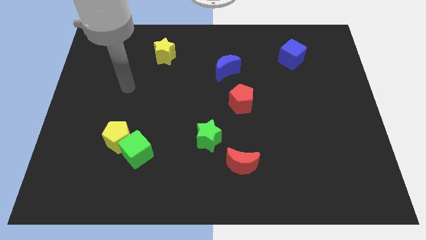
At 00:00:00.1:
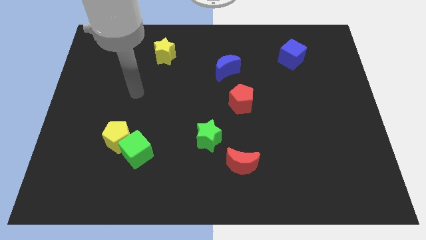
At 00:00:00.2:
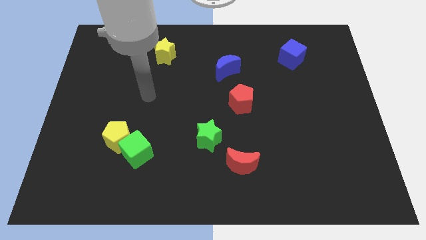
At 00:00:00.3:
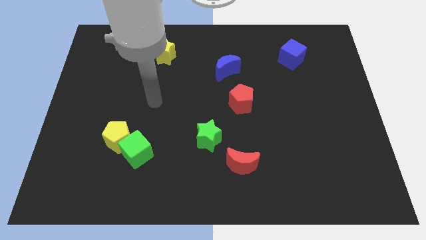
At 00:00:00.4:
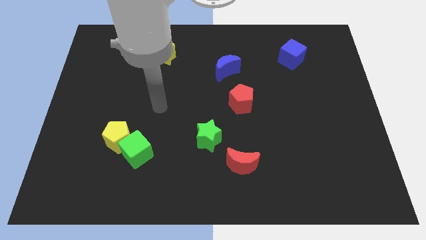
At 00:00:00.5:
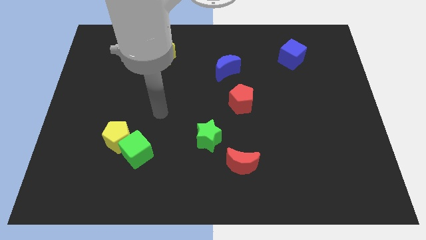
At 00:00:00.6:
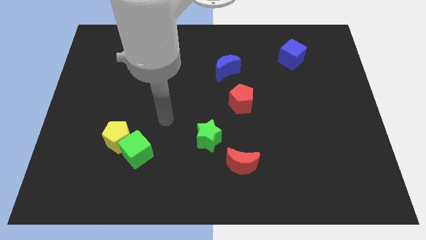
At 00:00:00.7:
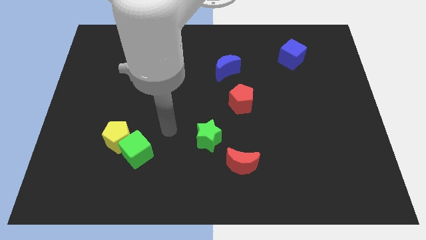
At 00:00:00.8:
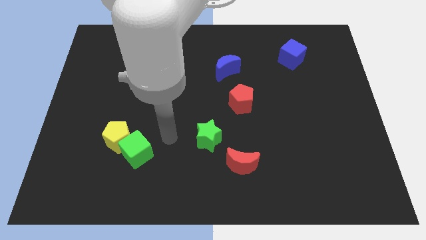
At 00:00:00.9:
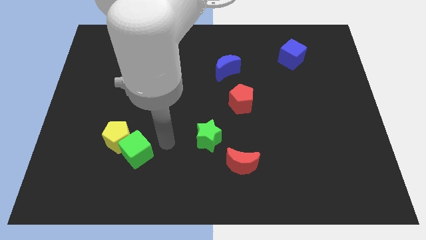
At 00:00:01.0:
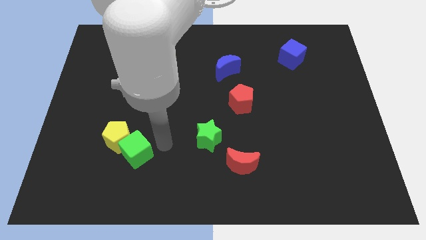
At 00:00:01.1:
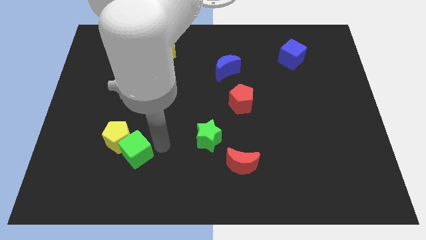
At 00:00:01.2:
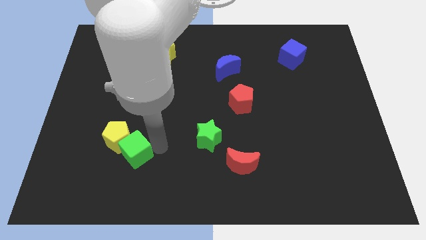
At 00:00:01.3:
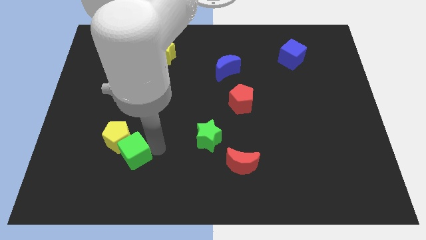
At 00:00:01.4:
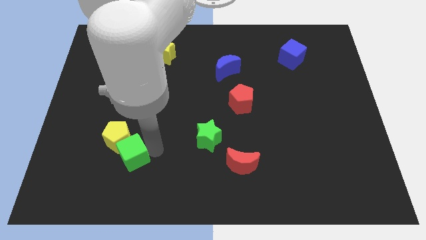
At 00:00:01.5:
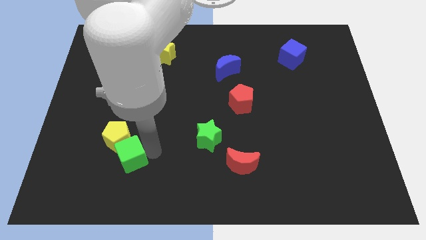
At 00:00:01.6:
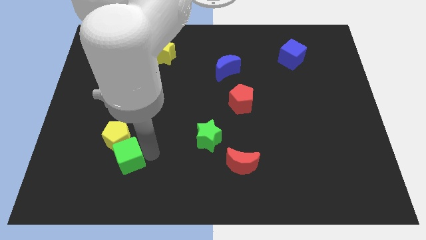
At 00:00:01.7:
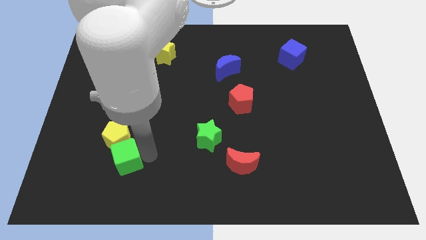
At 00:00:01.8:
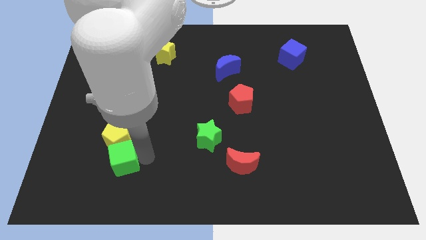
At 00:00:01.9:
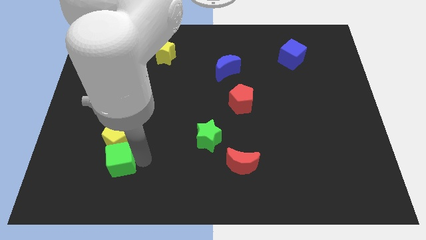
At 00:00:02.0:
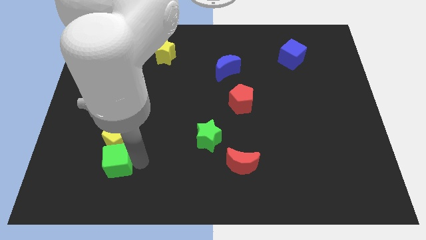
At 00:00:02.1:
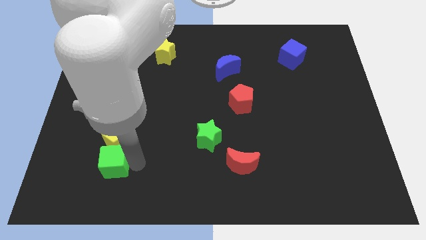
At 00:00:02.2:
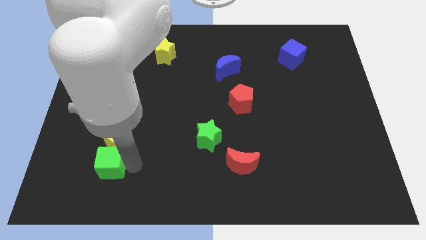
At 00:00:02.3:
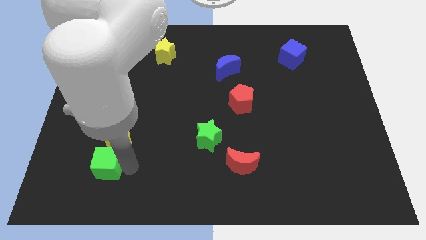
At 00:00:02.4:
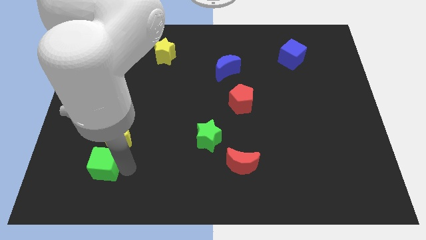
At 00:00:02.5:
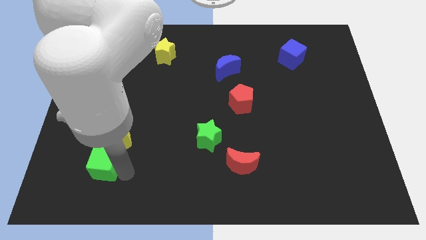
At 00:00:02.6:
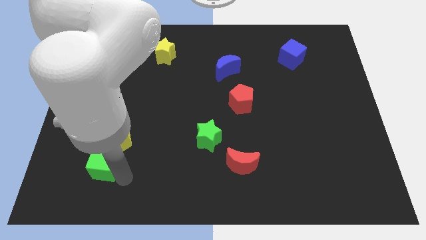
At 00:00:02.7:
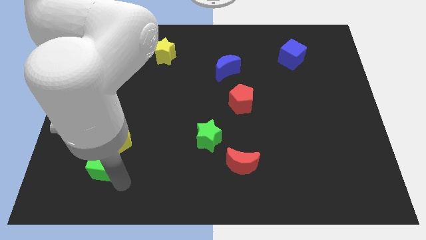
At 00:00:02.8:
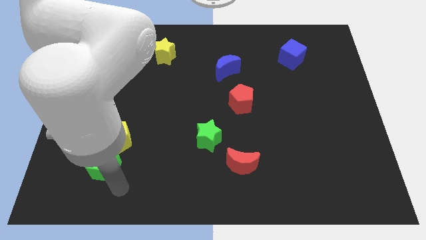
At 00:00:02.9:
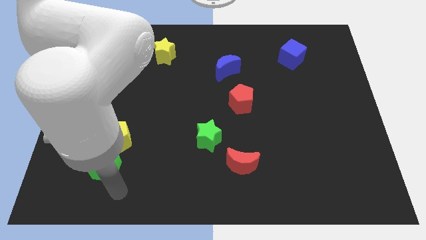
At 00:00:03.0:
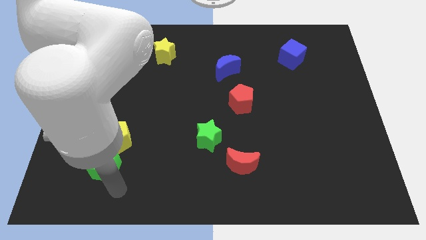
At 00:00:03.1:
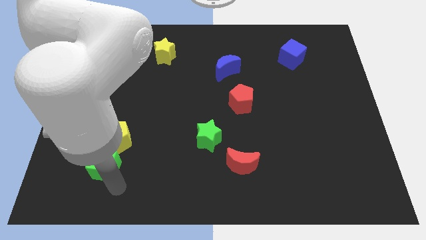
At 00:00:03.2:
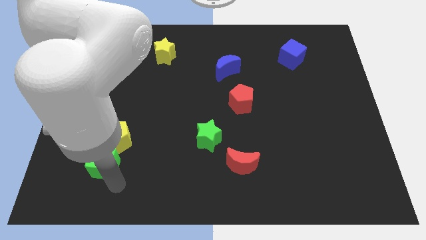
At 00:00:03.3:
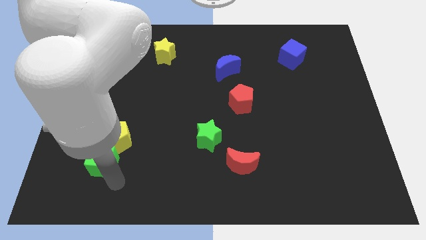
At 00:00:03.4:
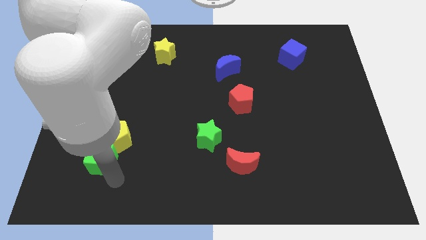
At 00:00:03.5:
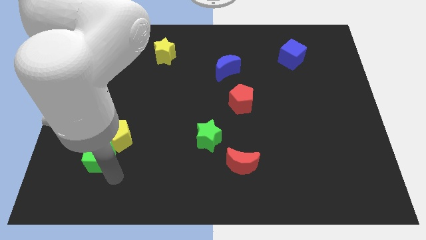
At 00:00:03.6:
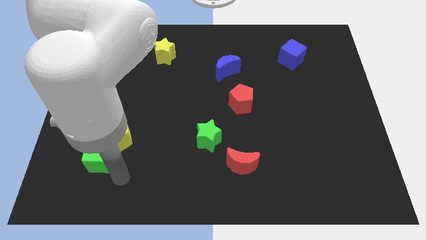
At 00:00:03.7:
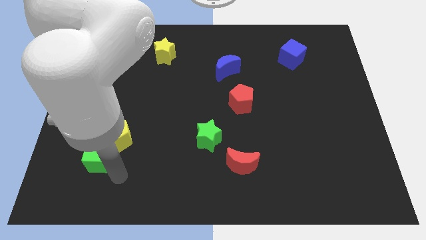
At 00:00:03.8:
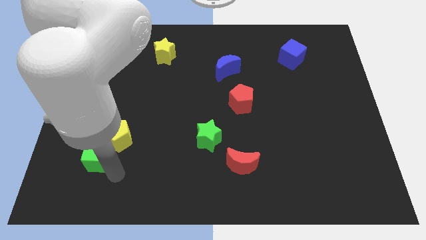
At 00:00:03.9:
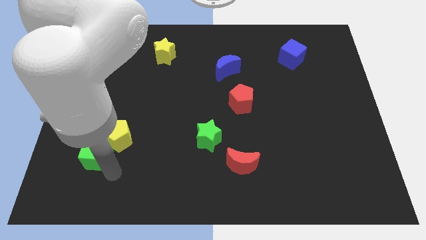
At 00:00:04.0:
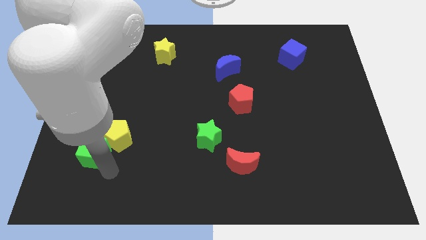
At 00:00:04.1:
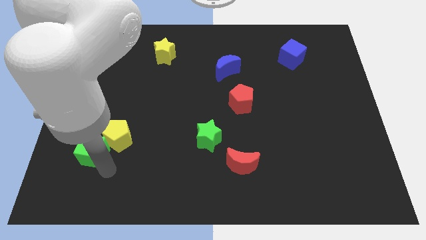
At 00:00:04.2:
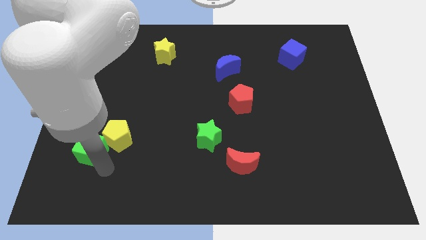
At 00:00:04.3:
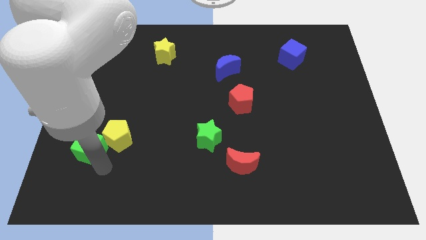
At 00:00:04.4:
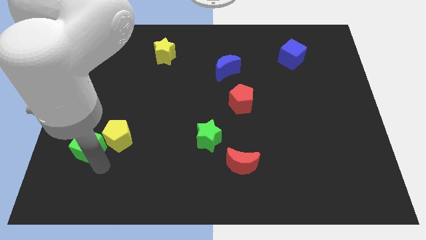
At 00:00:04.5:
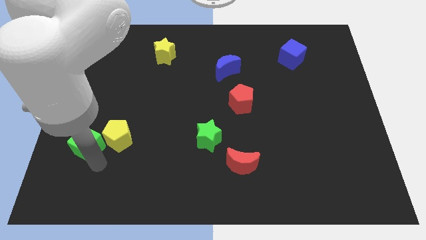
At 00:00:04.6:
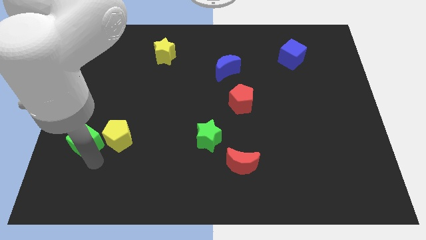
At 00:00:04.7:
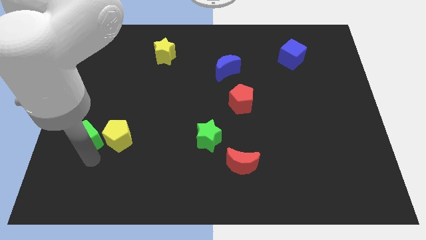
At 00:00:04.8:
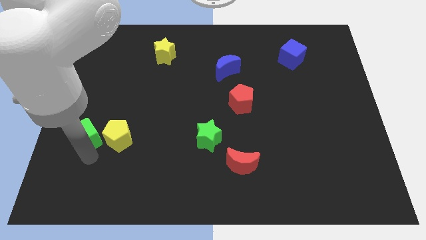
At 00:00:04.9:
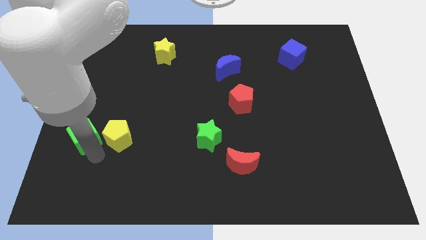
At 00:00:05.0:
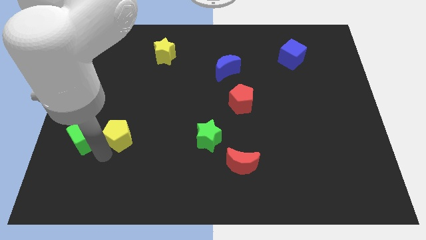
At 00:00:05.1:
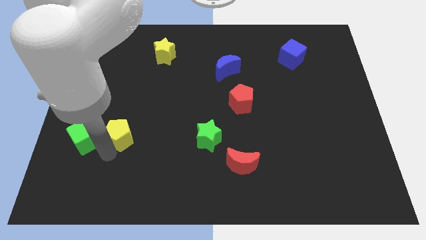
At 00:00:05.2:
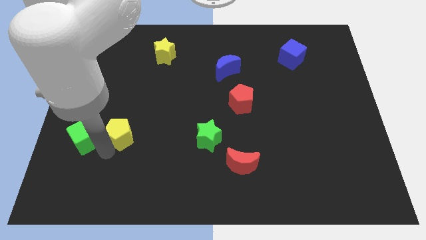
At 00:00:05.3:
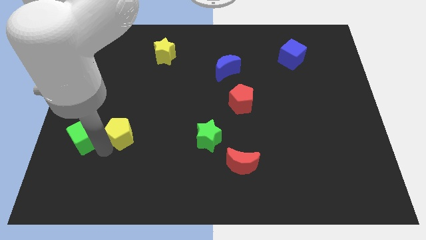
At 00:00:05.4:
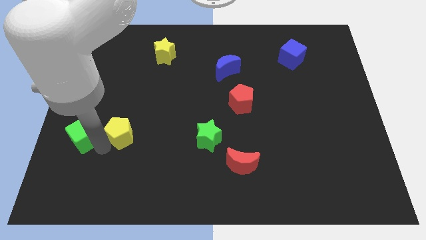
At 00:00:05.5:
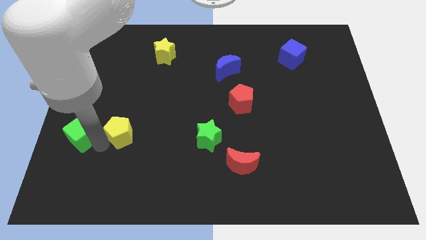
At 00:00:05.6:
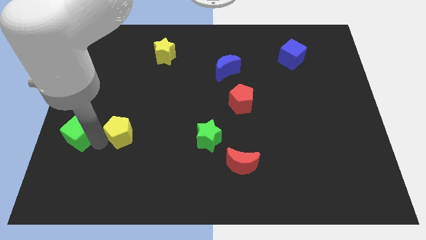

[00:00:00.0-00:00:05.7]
put the green cube to the center left
